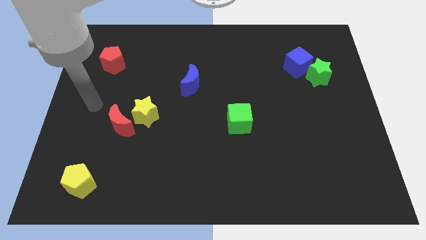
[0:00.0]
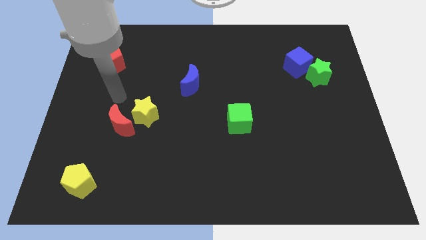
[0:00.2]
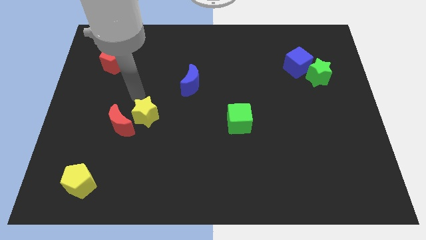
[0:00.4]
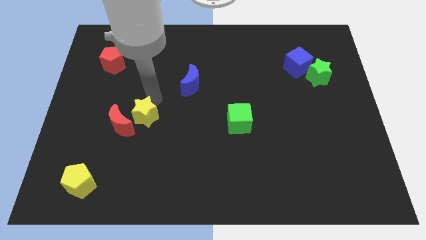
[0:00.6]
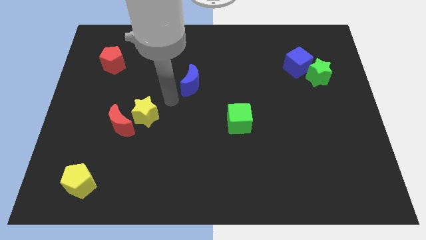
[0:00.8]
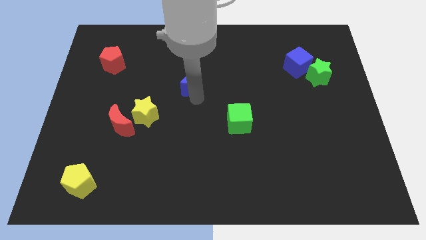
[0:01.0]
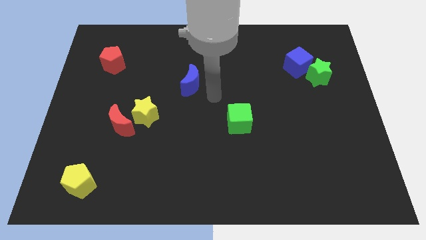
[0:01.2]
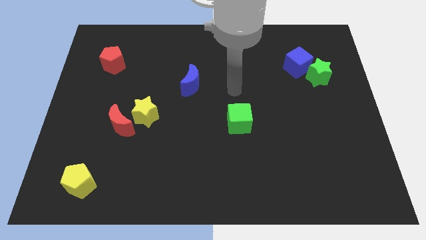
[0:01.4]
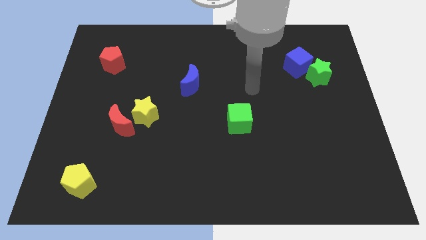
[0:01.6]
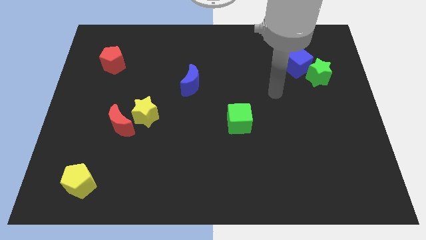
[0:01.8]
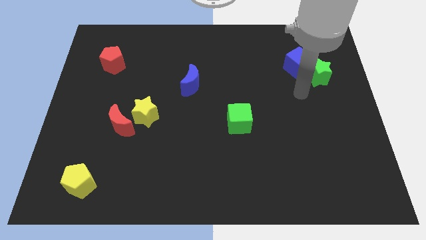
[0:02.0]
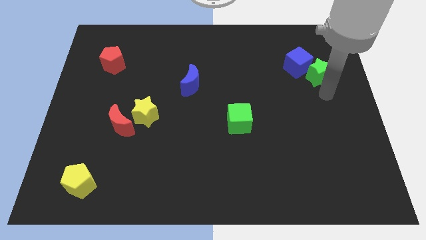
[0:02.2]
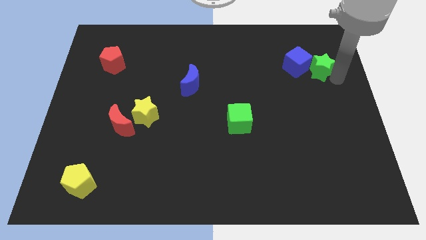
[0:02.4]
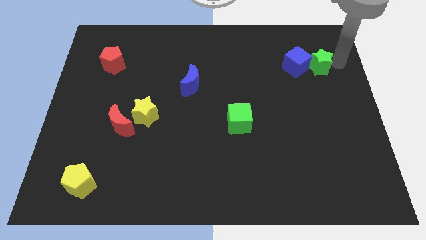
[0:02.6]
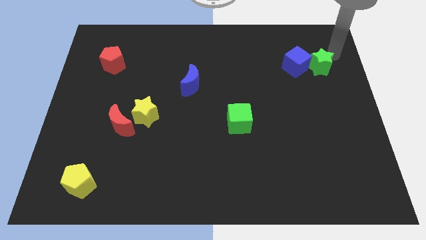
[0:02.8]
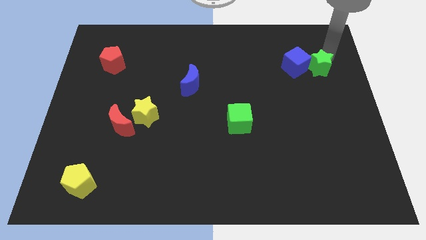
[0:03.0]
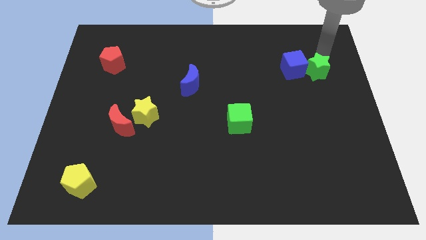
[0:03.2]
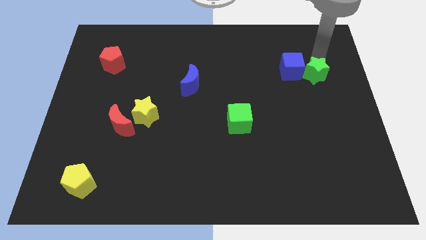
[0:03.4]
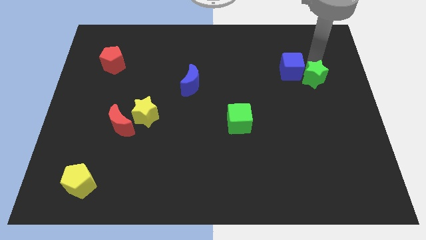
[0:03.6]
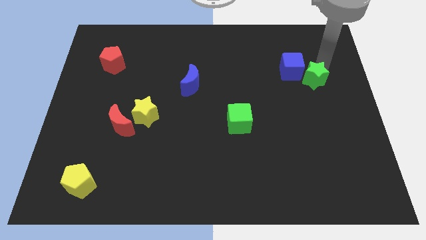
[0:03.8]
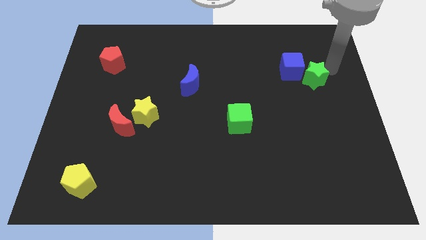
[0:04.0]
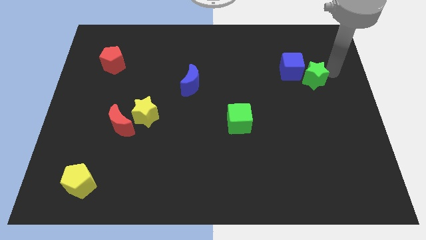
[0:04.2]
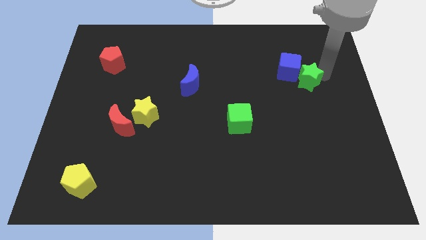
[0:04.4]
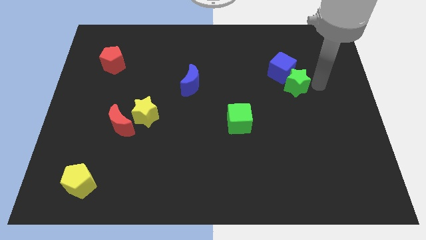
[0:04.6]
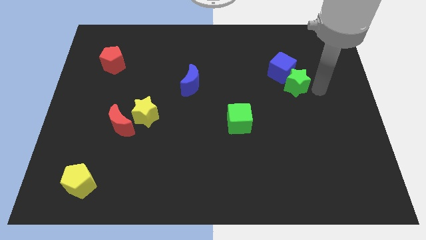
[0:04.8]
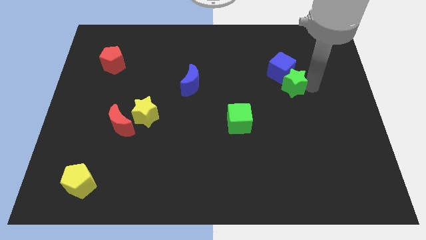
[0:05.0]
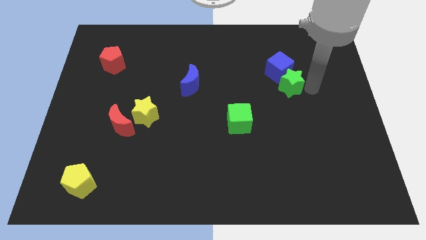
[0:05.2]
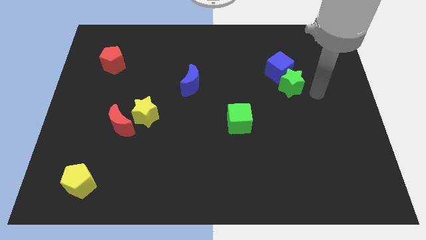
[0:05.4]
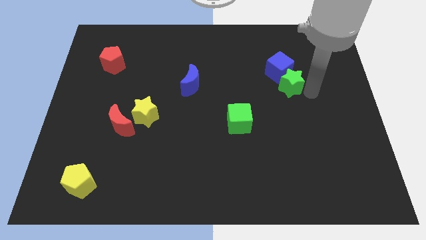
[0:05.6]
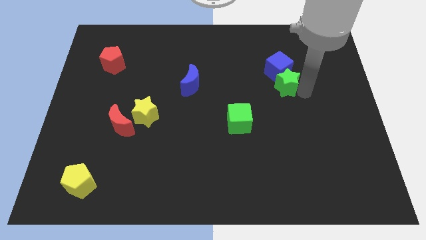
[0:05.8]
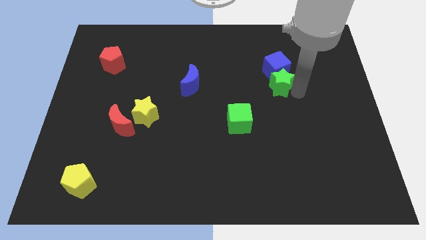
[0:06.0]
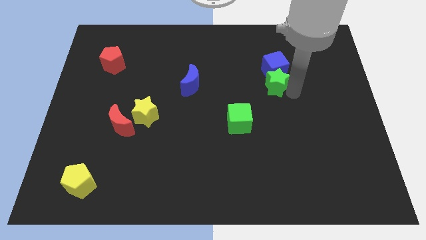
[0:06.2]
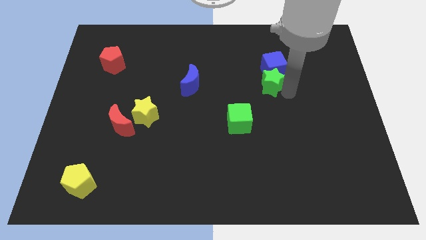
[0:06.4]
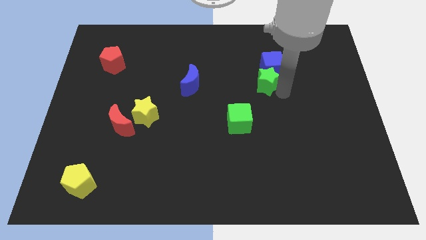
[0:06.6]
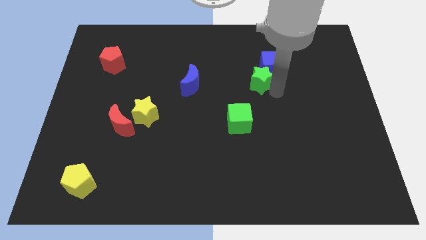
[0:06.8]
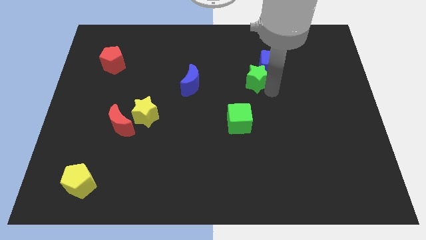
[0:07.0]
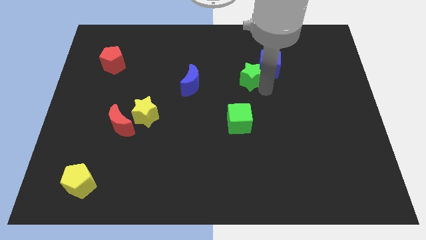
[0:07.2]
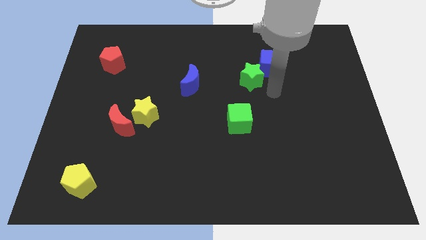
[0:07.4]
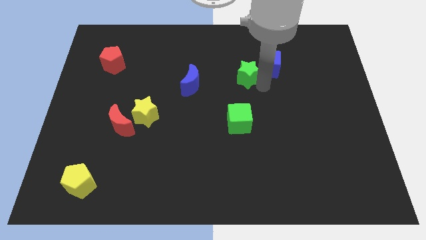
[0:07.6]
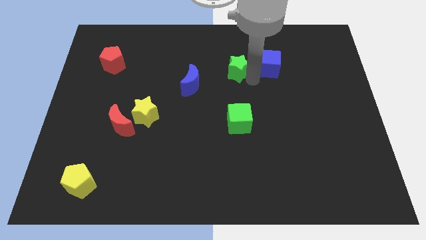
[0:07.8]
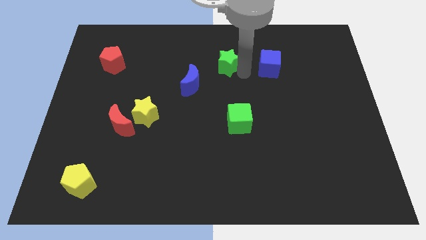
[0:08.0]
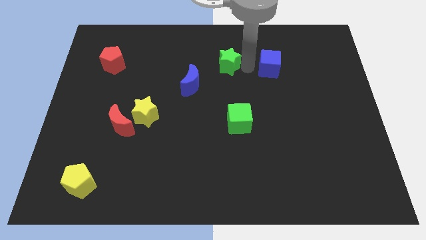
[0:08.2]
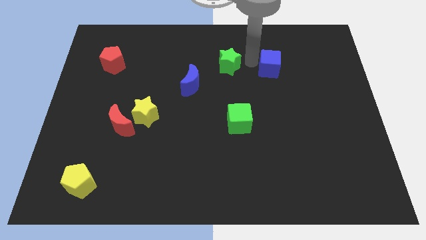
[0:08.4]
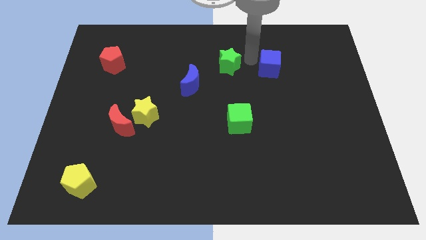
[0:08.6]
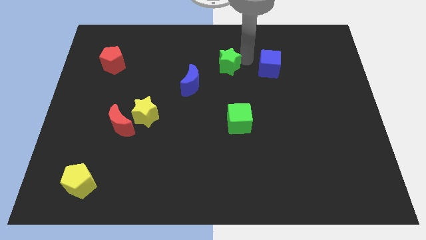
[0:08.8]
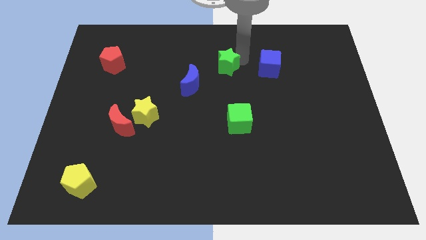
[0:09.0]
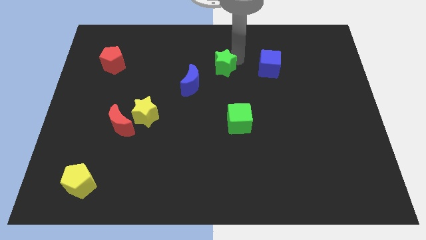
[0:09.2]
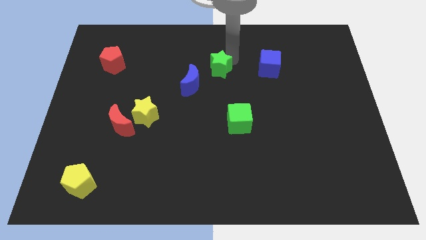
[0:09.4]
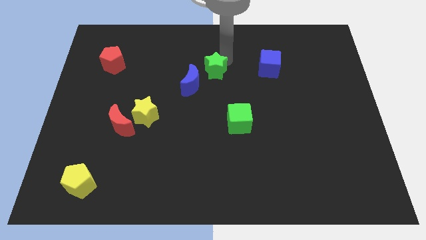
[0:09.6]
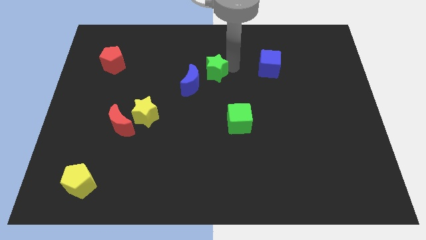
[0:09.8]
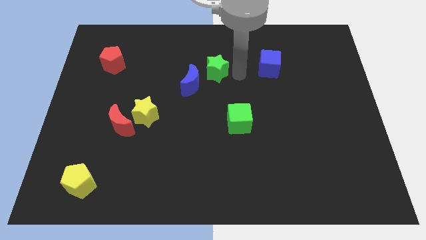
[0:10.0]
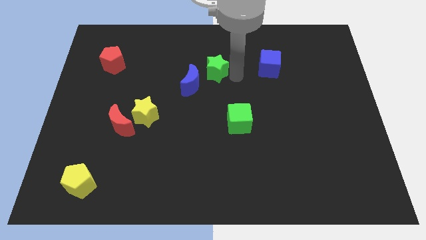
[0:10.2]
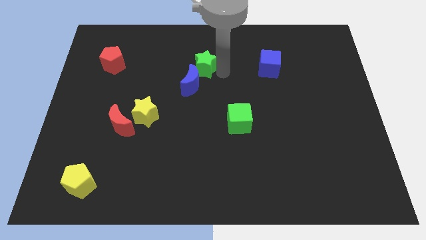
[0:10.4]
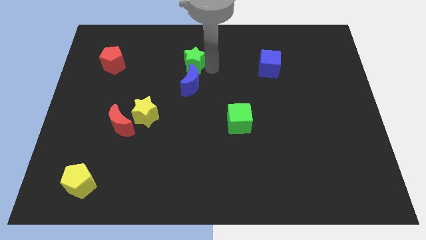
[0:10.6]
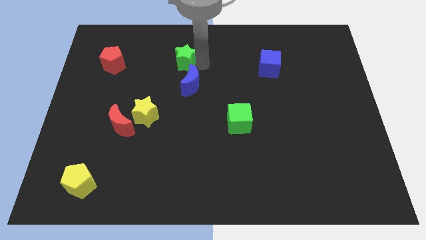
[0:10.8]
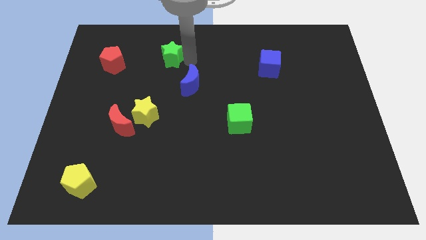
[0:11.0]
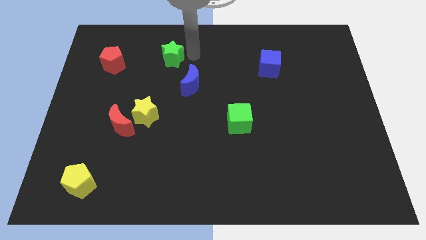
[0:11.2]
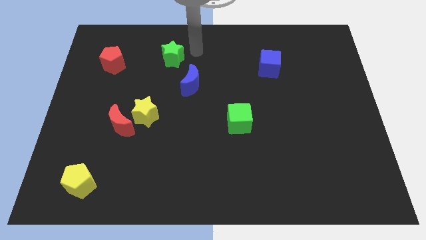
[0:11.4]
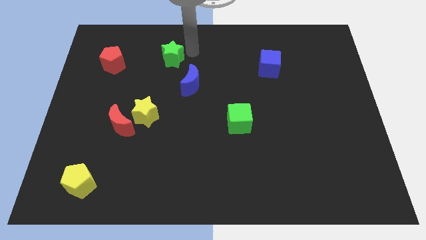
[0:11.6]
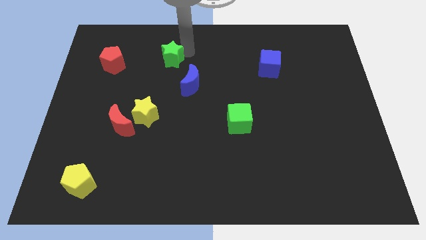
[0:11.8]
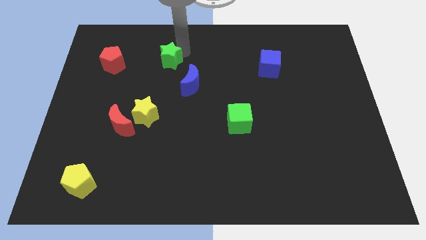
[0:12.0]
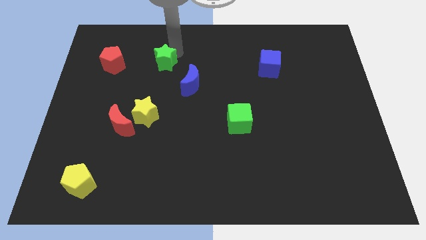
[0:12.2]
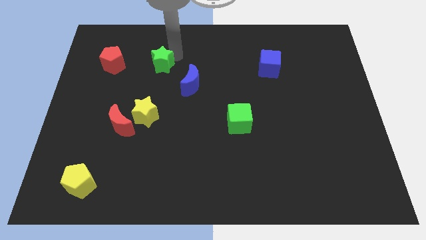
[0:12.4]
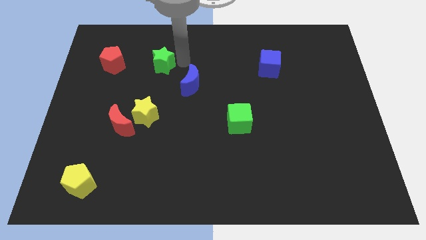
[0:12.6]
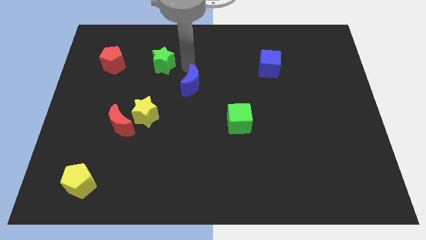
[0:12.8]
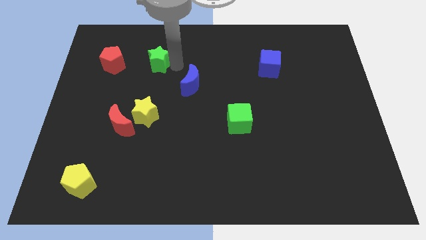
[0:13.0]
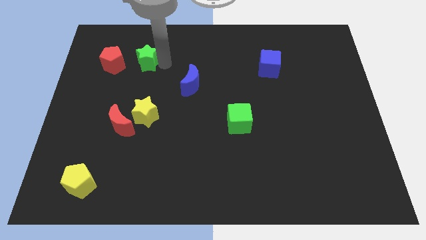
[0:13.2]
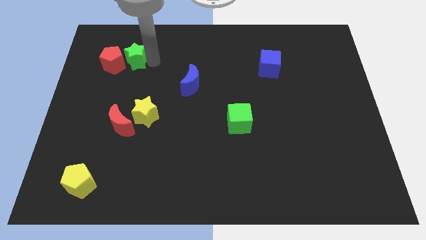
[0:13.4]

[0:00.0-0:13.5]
move the green star next to the red pentagon

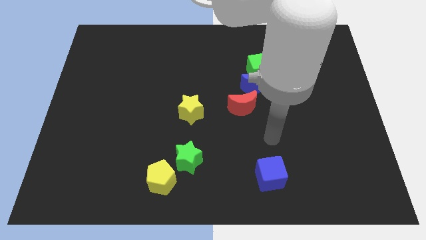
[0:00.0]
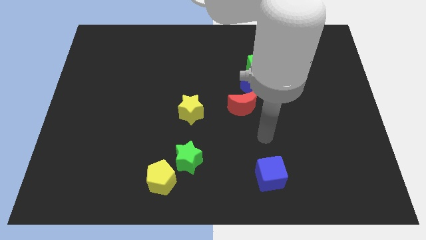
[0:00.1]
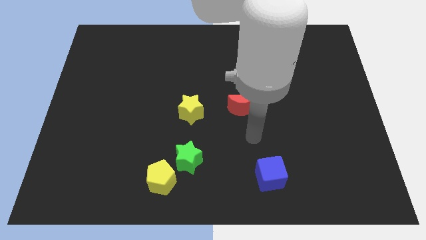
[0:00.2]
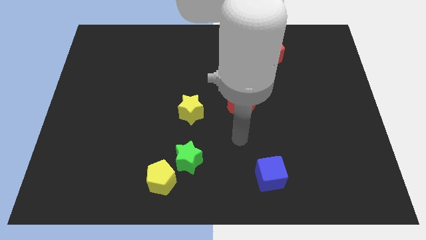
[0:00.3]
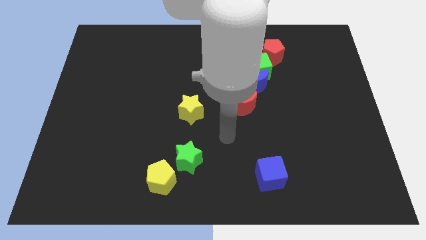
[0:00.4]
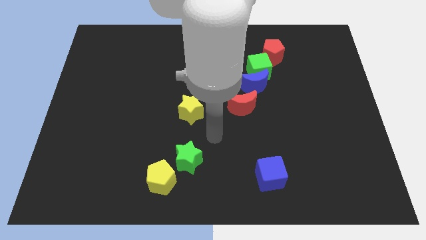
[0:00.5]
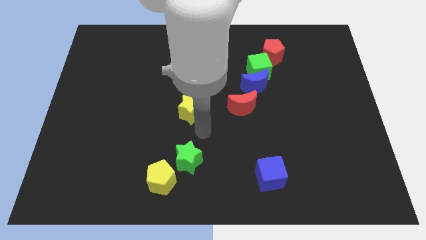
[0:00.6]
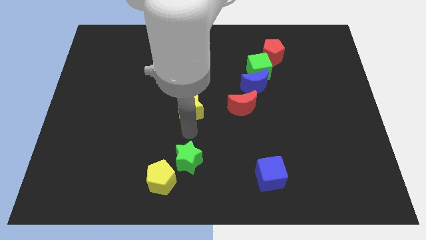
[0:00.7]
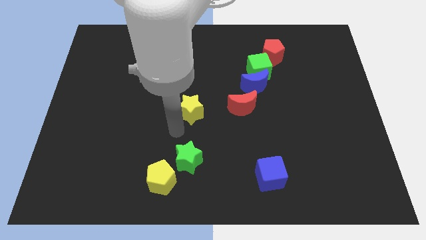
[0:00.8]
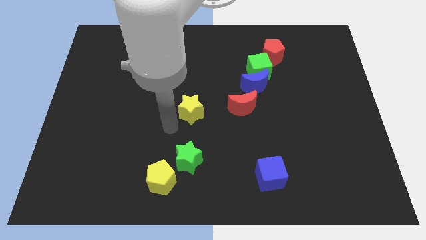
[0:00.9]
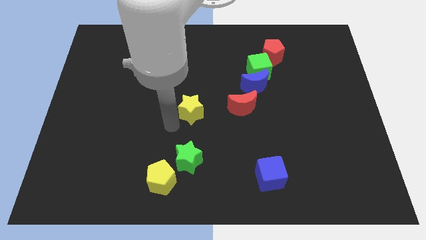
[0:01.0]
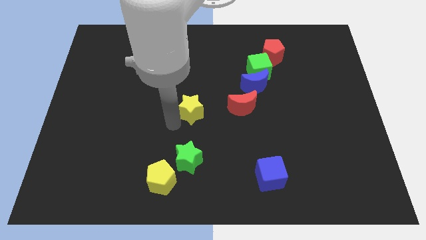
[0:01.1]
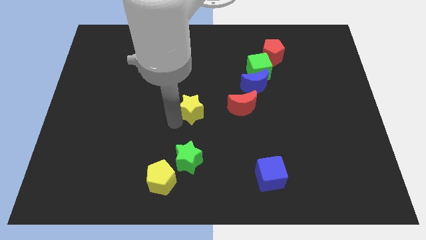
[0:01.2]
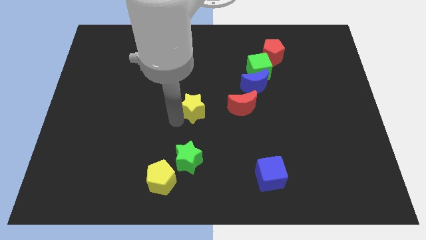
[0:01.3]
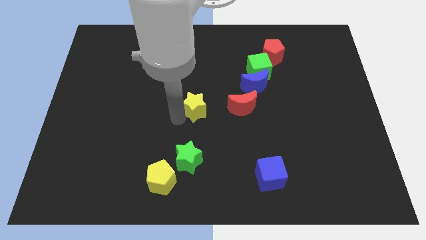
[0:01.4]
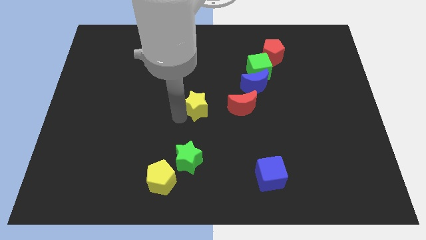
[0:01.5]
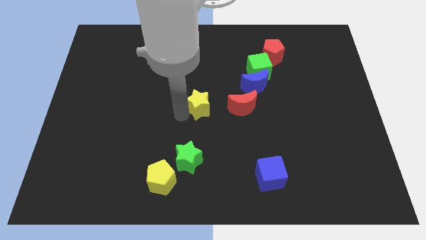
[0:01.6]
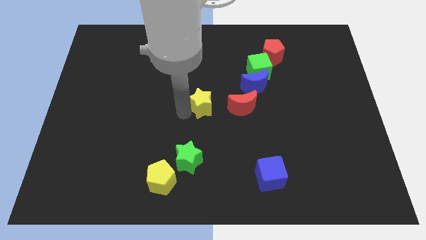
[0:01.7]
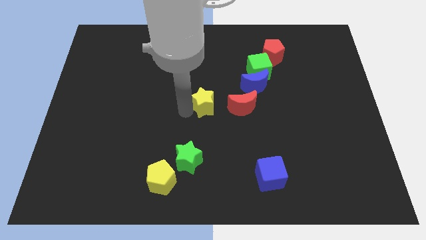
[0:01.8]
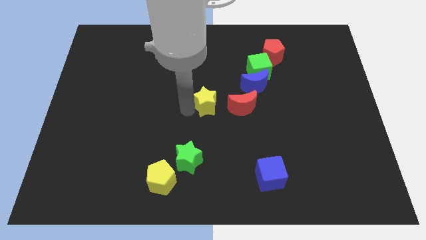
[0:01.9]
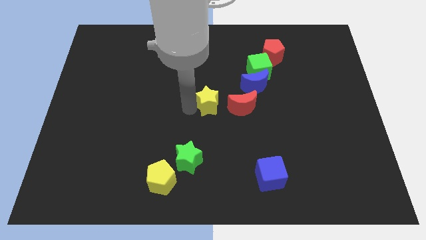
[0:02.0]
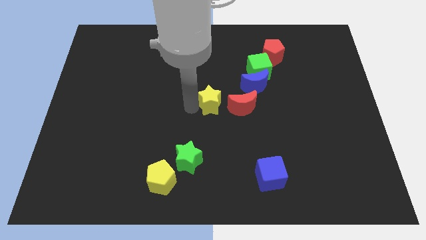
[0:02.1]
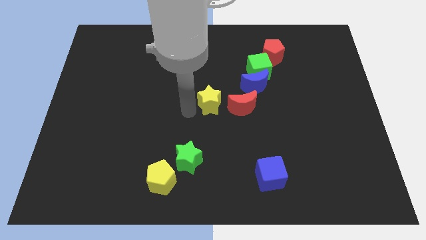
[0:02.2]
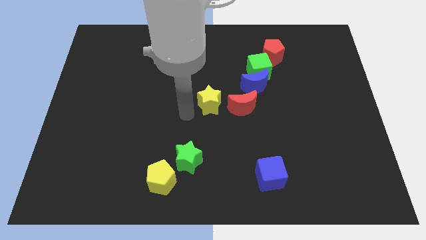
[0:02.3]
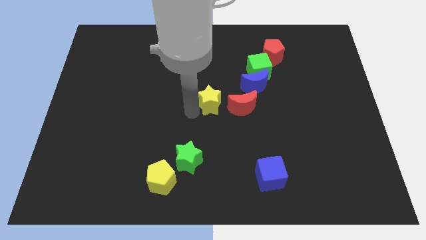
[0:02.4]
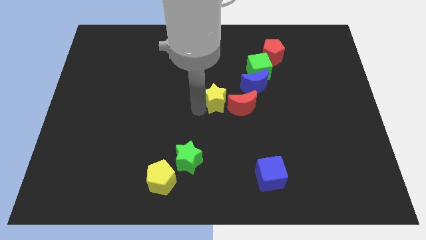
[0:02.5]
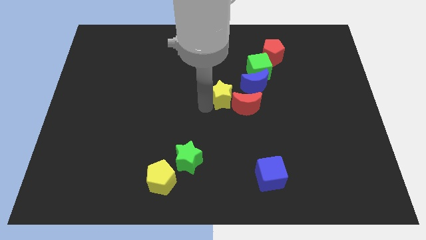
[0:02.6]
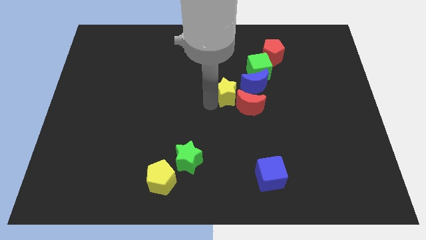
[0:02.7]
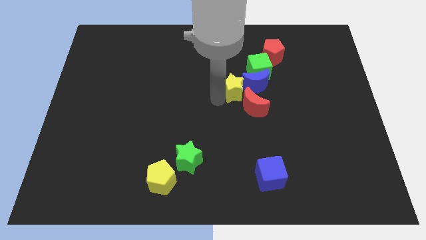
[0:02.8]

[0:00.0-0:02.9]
slide the yellow star close to the blue moon
